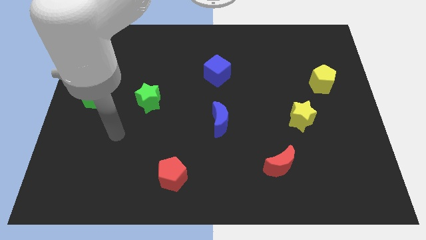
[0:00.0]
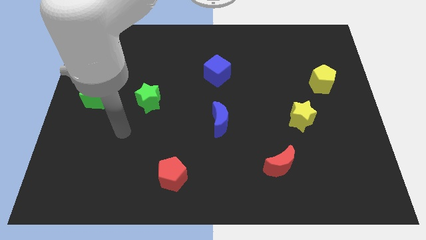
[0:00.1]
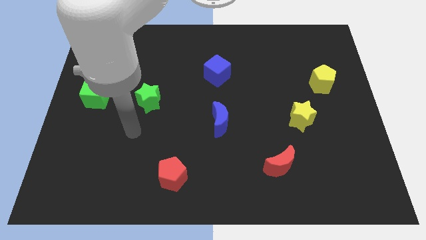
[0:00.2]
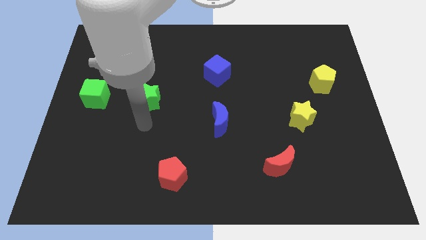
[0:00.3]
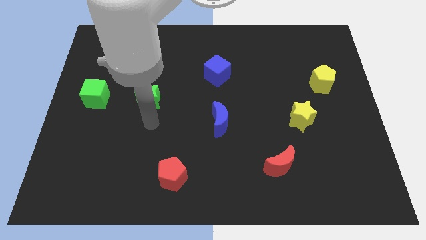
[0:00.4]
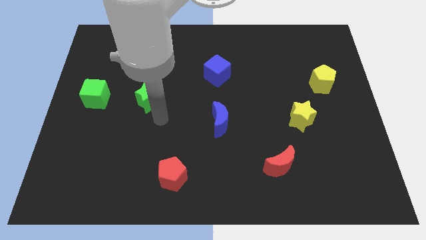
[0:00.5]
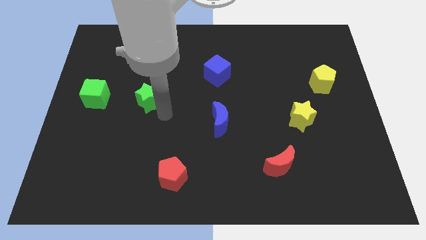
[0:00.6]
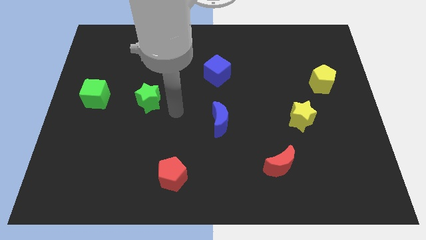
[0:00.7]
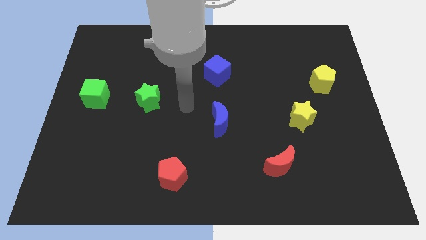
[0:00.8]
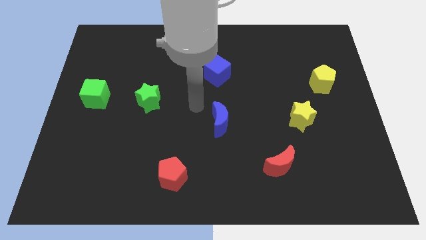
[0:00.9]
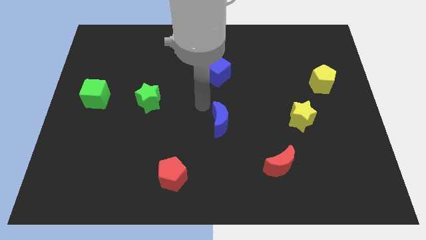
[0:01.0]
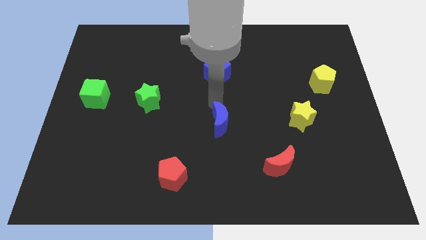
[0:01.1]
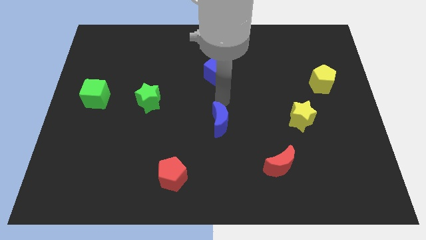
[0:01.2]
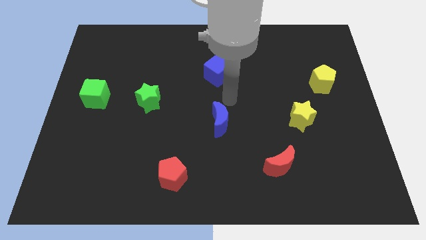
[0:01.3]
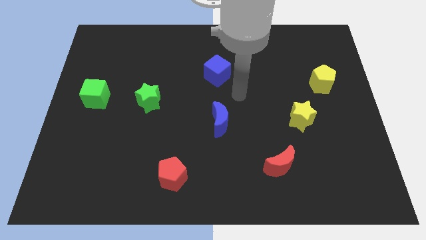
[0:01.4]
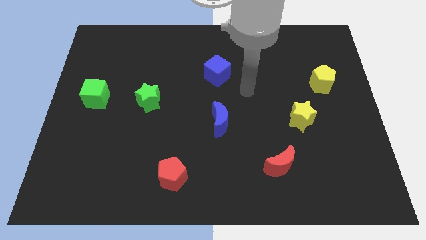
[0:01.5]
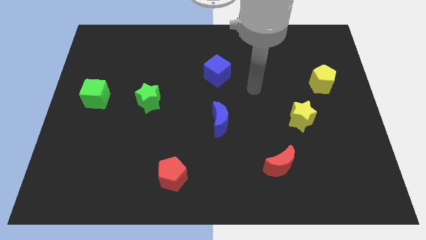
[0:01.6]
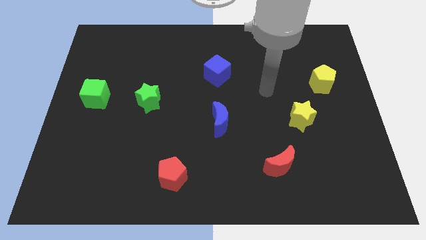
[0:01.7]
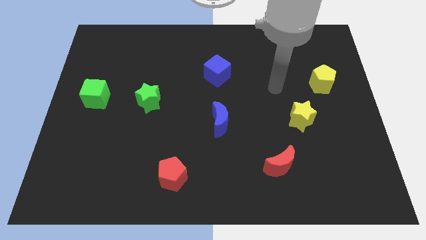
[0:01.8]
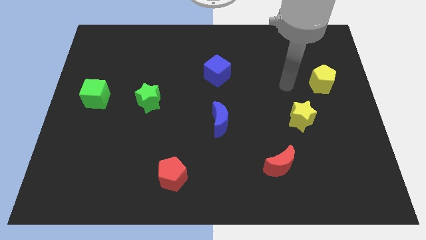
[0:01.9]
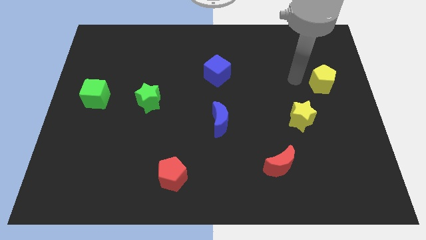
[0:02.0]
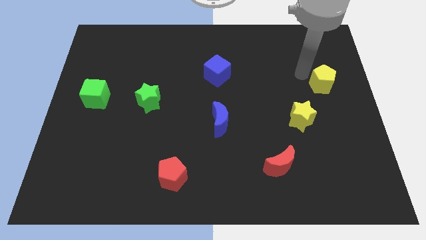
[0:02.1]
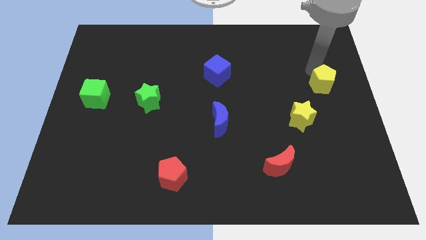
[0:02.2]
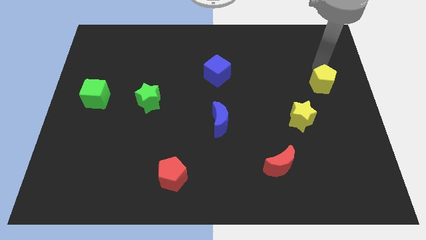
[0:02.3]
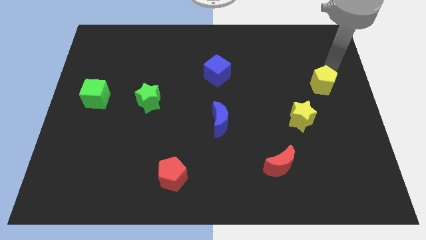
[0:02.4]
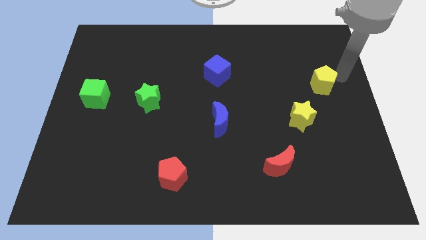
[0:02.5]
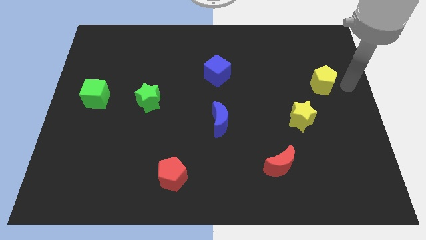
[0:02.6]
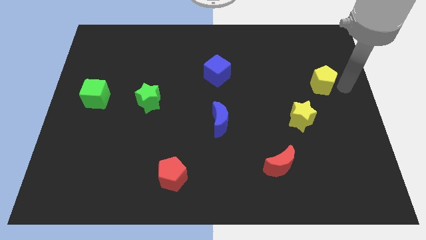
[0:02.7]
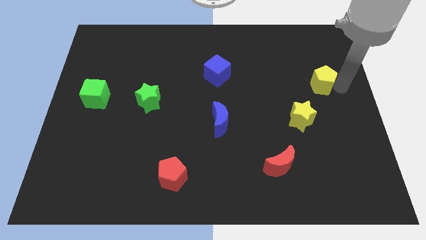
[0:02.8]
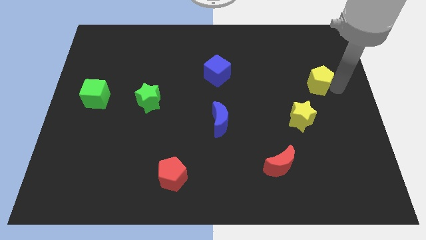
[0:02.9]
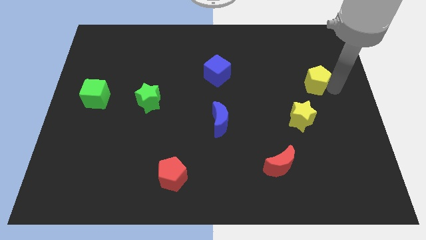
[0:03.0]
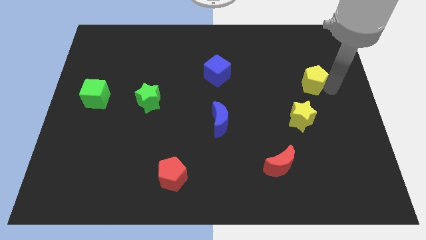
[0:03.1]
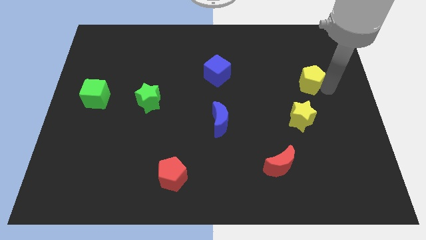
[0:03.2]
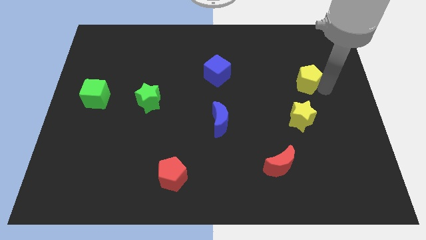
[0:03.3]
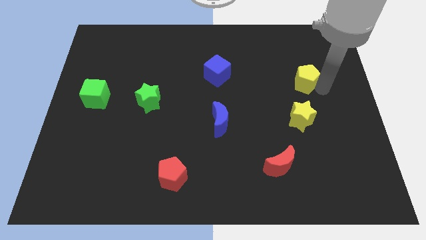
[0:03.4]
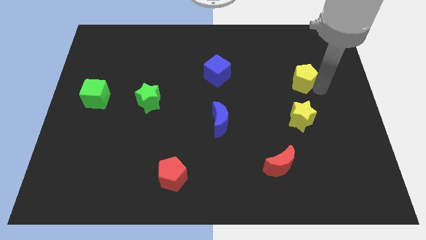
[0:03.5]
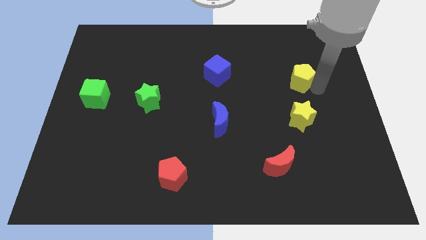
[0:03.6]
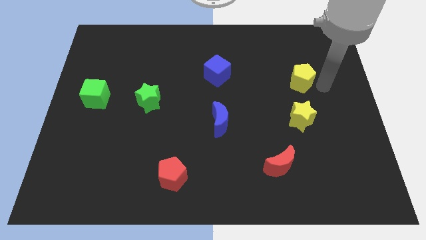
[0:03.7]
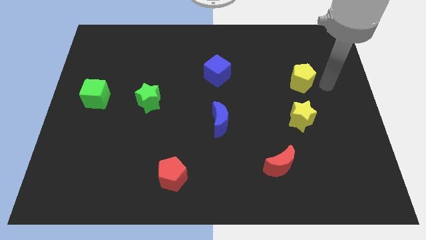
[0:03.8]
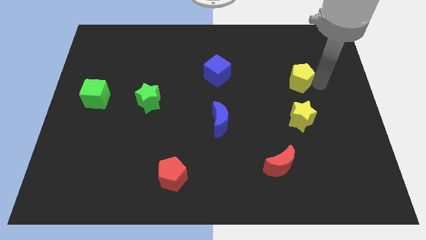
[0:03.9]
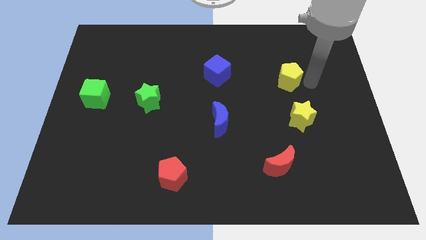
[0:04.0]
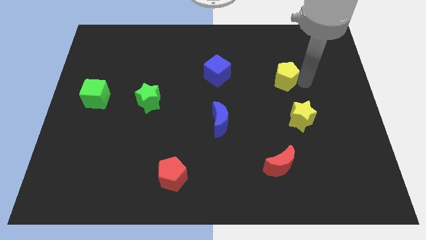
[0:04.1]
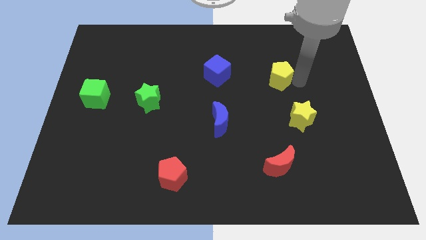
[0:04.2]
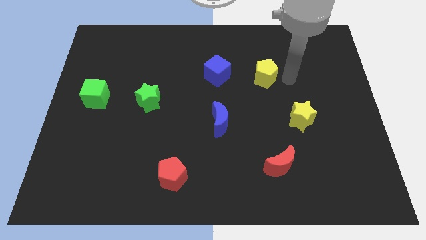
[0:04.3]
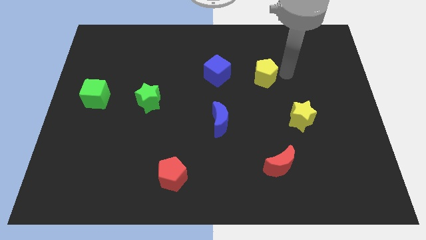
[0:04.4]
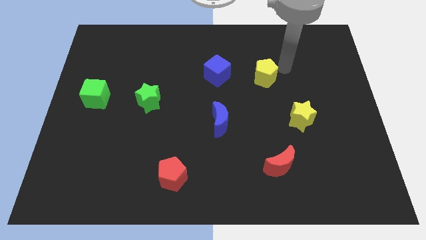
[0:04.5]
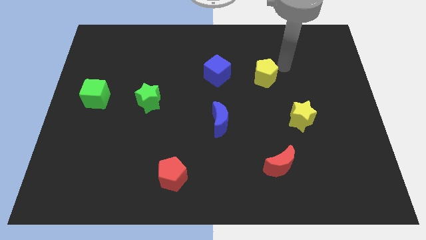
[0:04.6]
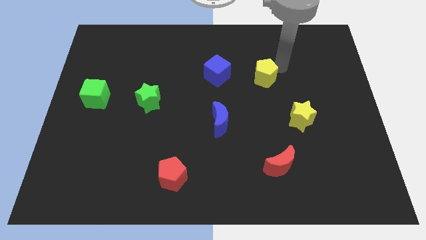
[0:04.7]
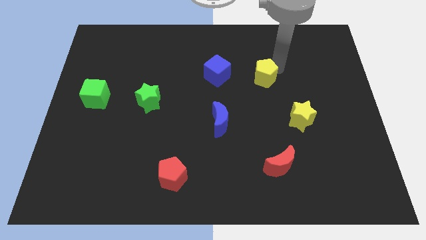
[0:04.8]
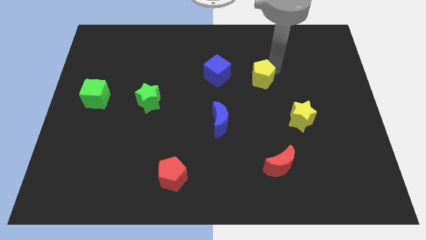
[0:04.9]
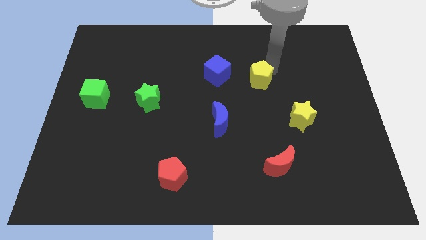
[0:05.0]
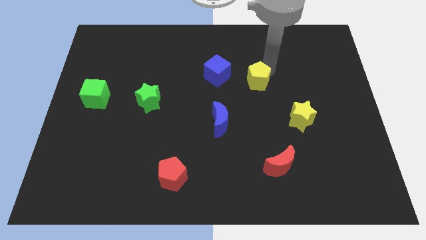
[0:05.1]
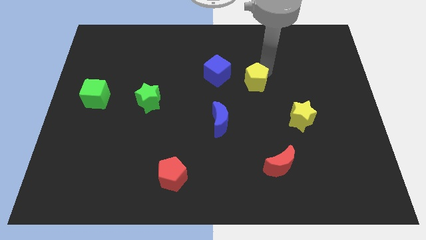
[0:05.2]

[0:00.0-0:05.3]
slide the yellow pentagon to the bottom right side of the blue cube
